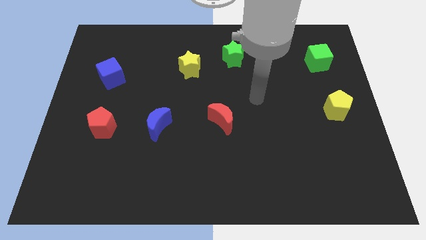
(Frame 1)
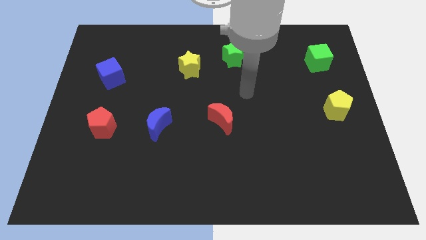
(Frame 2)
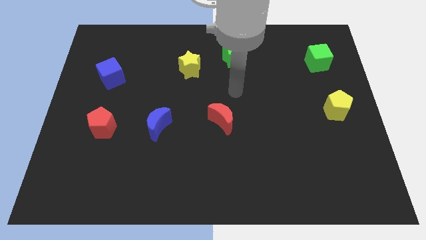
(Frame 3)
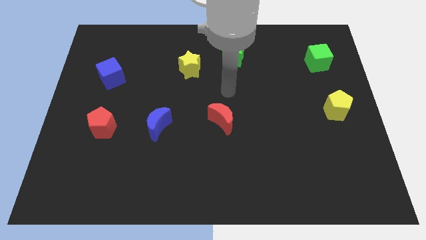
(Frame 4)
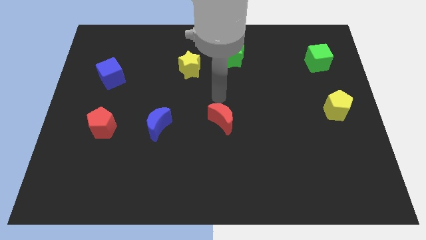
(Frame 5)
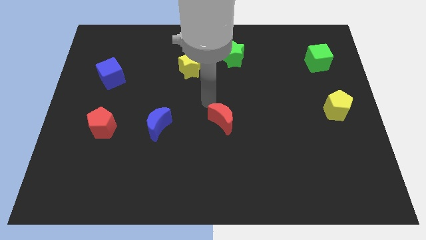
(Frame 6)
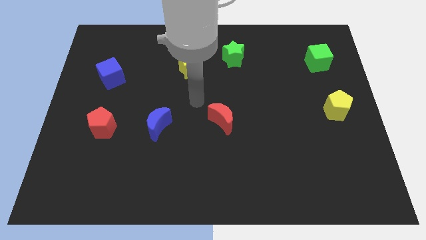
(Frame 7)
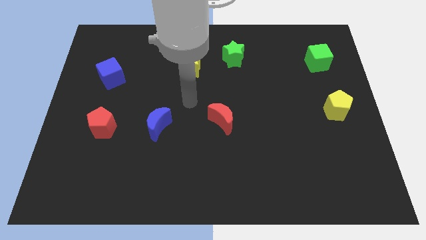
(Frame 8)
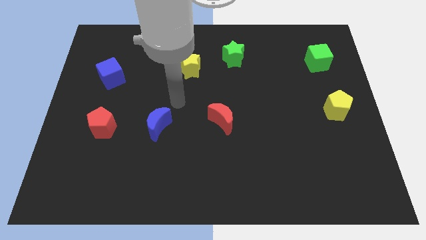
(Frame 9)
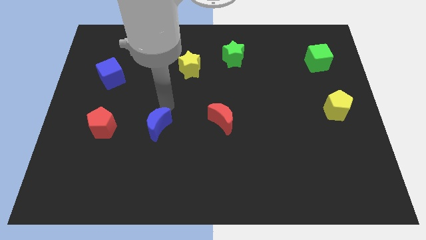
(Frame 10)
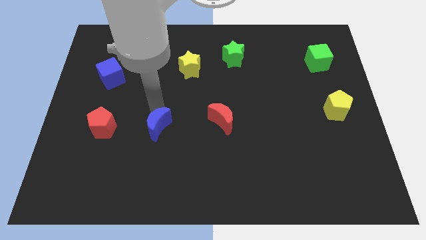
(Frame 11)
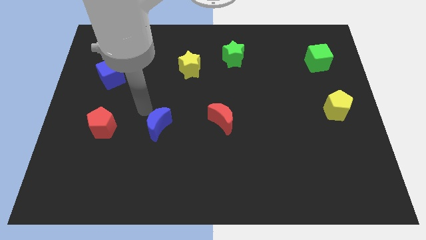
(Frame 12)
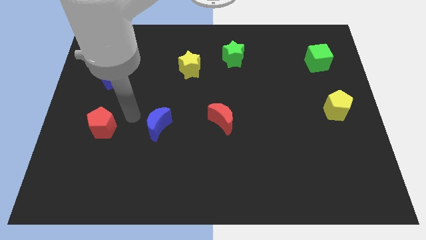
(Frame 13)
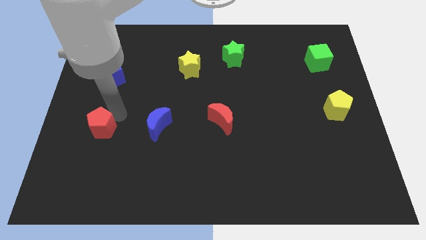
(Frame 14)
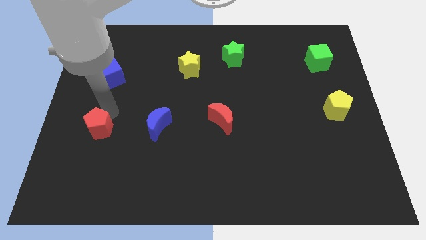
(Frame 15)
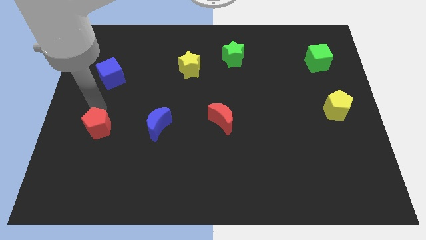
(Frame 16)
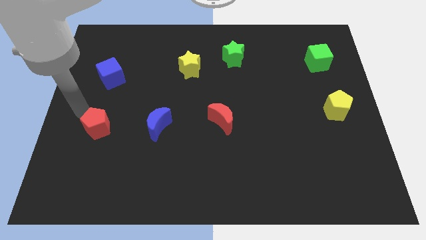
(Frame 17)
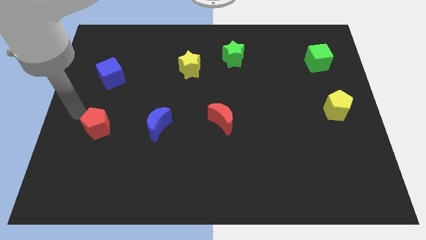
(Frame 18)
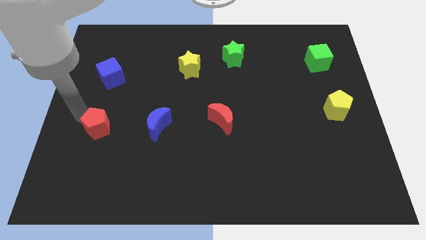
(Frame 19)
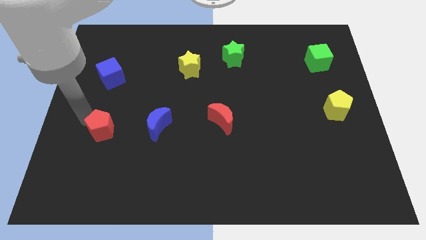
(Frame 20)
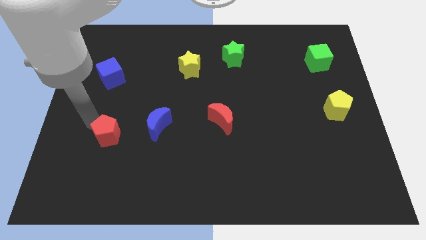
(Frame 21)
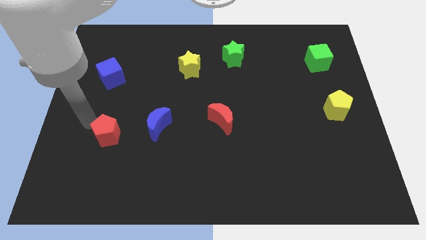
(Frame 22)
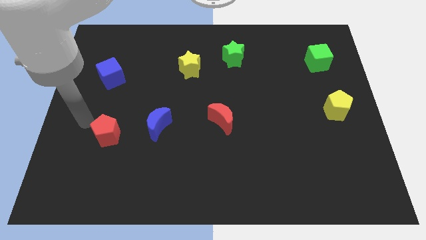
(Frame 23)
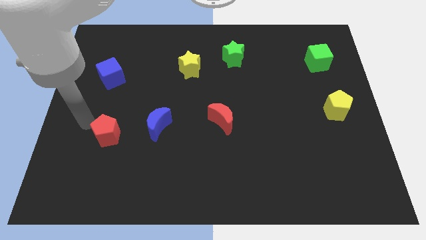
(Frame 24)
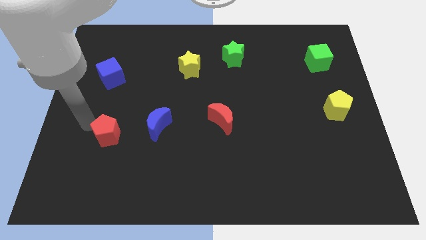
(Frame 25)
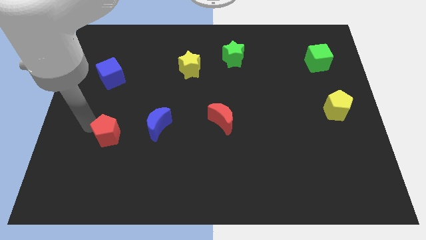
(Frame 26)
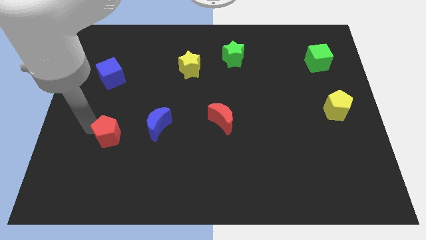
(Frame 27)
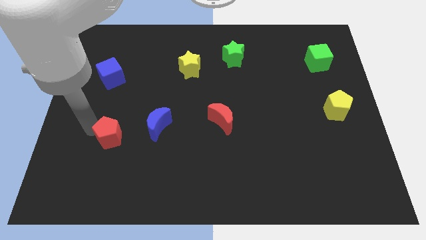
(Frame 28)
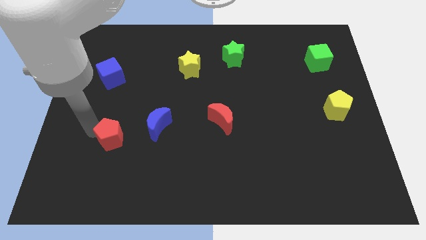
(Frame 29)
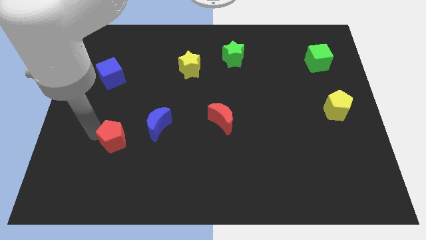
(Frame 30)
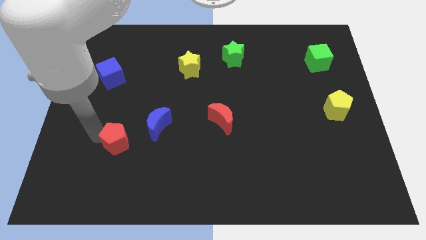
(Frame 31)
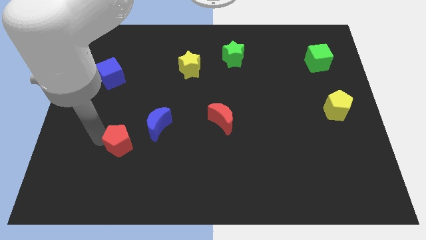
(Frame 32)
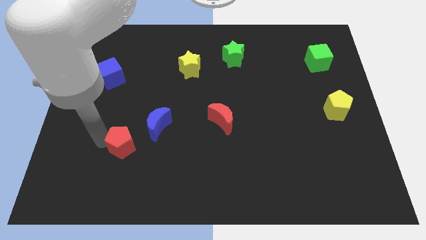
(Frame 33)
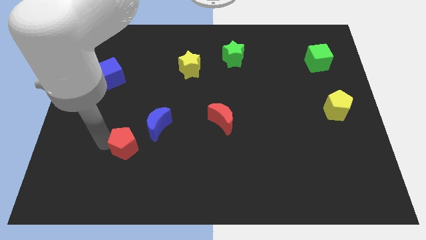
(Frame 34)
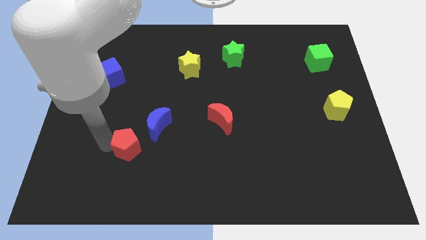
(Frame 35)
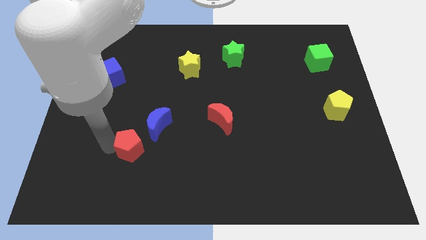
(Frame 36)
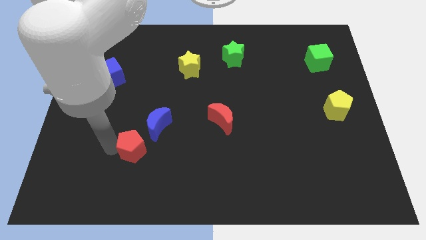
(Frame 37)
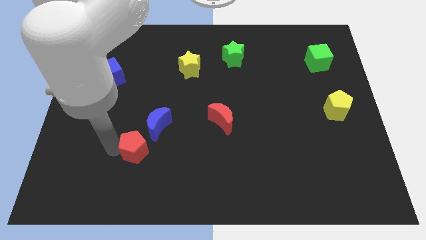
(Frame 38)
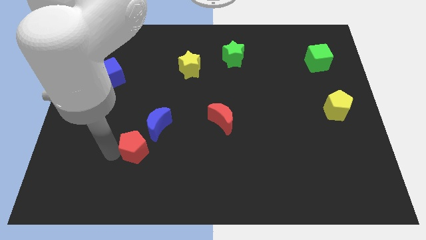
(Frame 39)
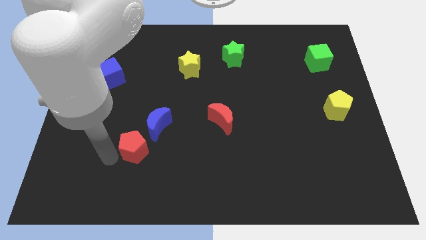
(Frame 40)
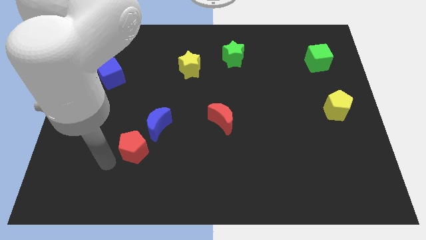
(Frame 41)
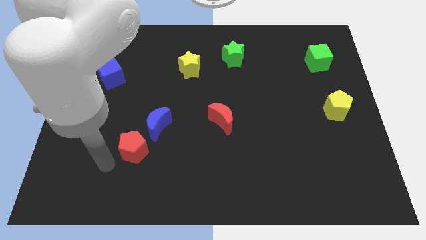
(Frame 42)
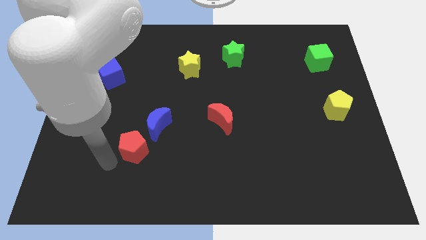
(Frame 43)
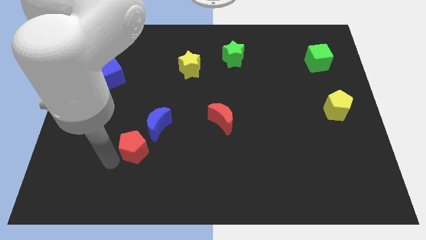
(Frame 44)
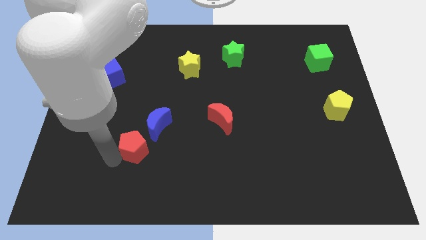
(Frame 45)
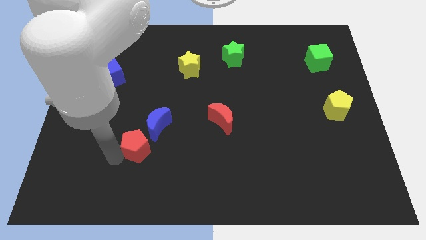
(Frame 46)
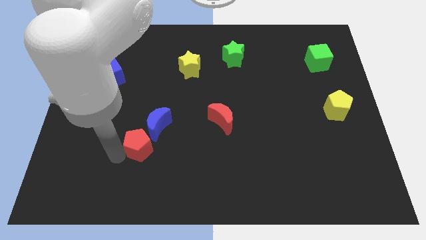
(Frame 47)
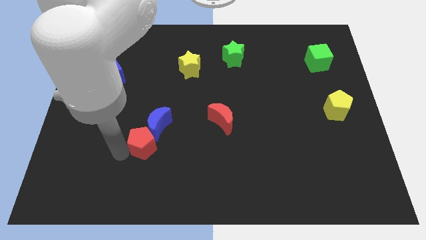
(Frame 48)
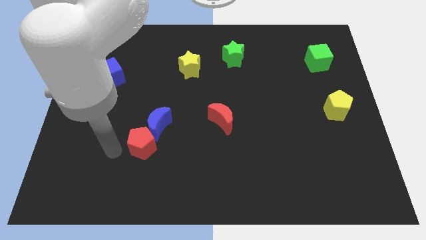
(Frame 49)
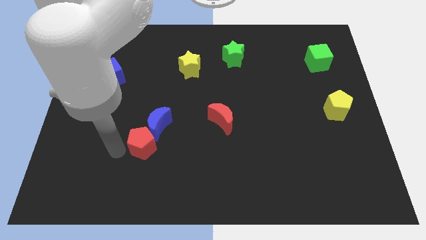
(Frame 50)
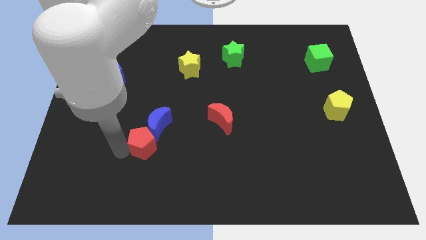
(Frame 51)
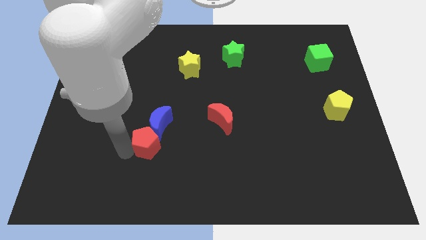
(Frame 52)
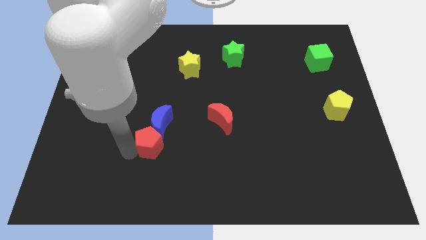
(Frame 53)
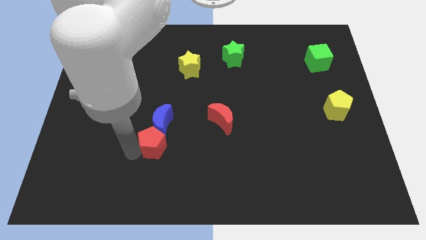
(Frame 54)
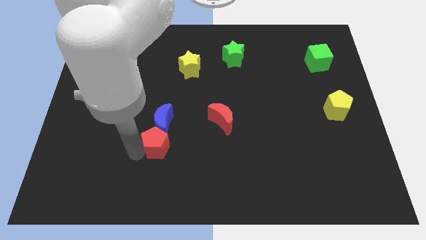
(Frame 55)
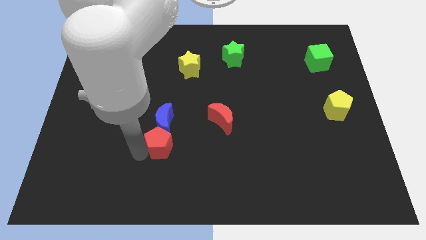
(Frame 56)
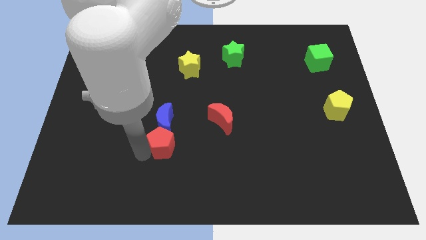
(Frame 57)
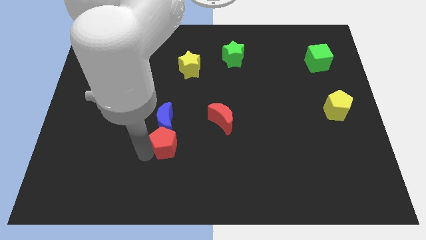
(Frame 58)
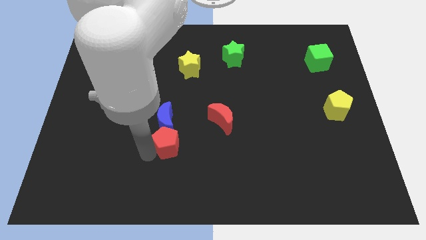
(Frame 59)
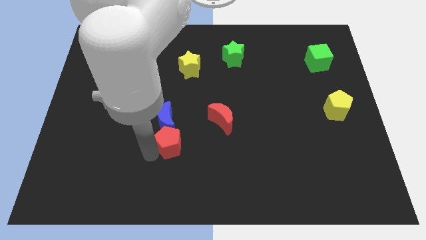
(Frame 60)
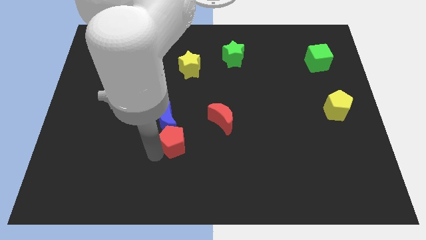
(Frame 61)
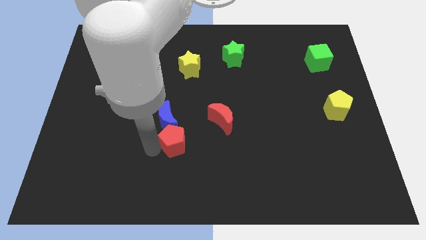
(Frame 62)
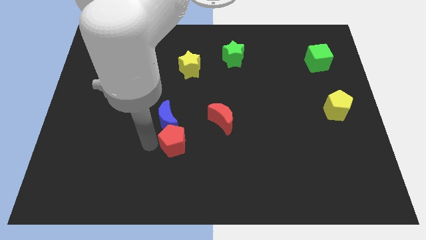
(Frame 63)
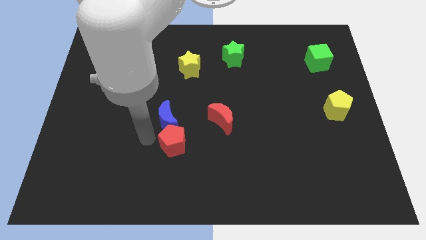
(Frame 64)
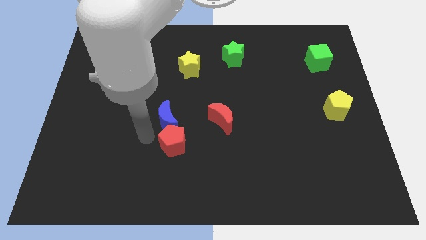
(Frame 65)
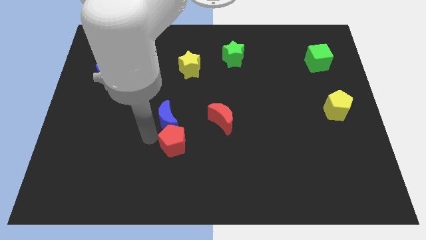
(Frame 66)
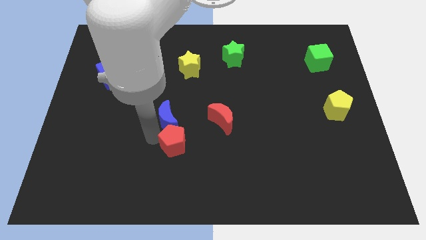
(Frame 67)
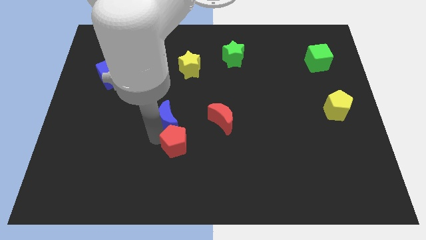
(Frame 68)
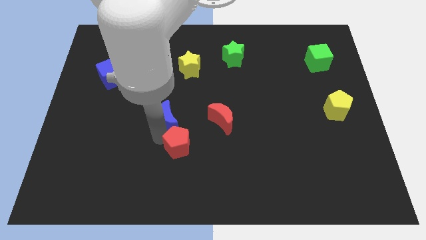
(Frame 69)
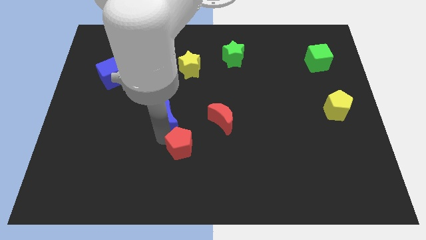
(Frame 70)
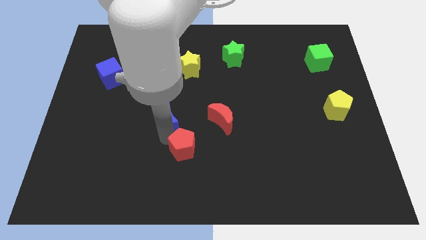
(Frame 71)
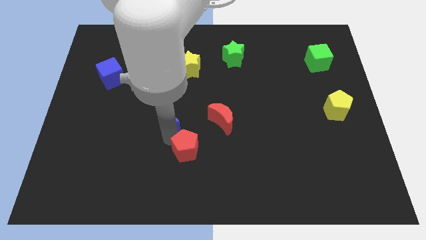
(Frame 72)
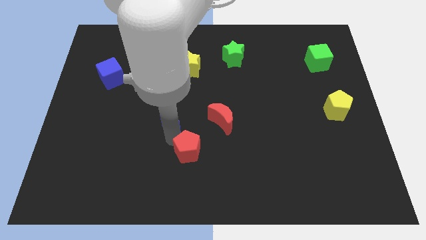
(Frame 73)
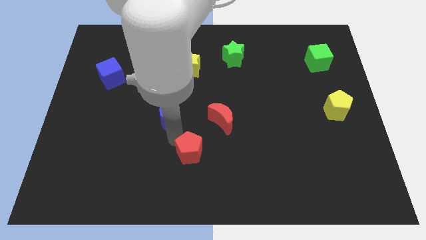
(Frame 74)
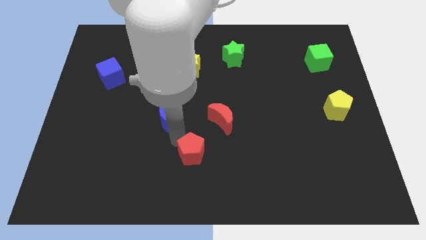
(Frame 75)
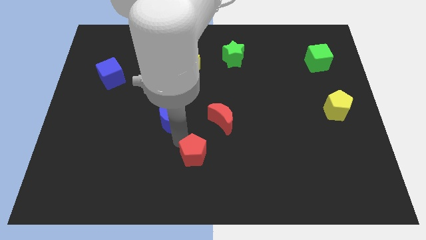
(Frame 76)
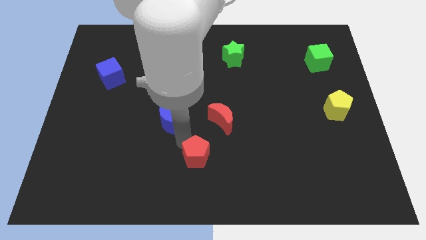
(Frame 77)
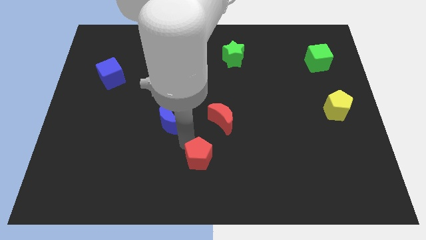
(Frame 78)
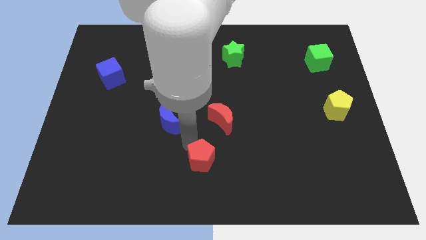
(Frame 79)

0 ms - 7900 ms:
move the red pentagon to the bottom of the red moon
